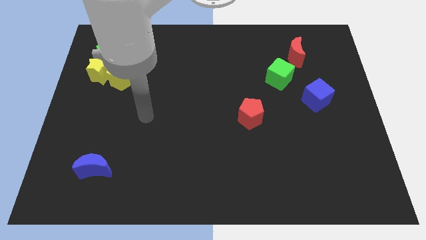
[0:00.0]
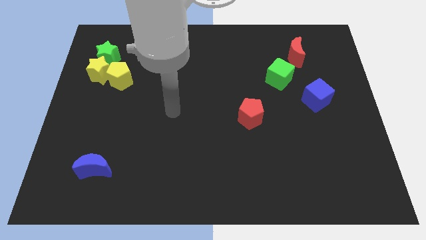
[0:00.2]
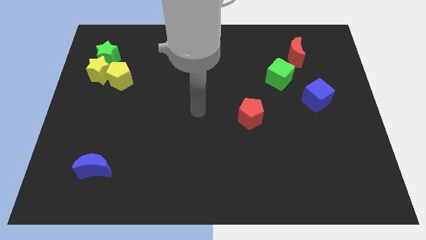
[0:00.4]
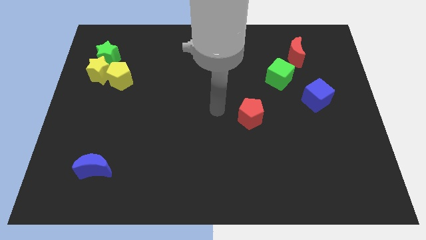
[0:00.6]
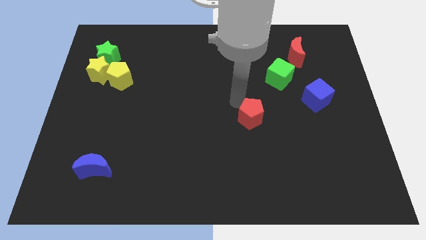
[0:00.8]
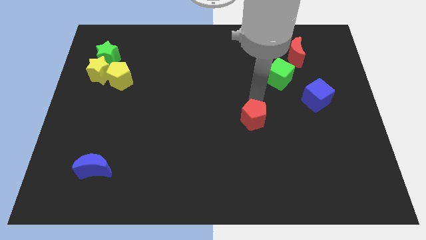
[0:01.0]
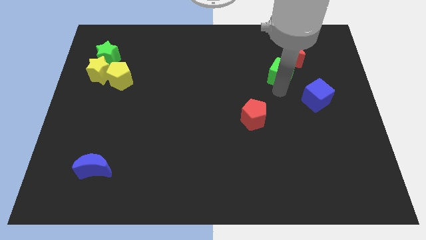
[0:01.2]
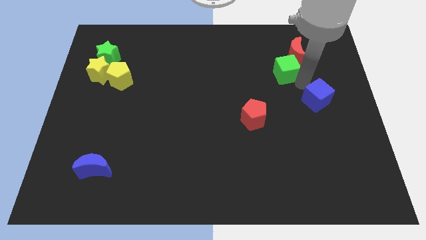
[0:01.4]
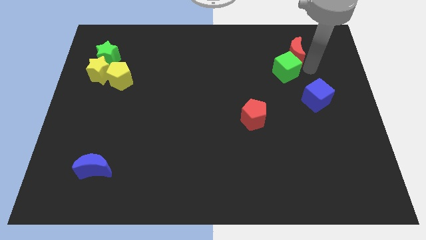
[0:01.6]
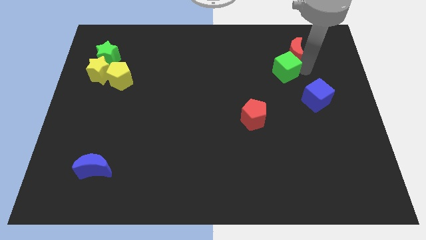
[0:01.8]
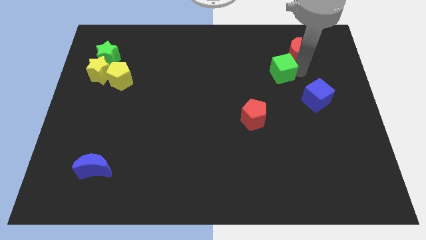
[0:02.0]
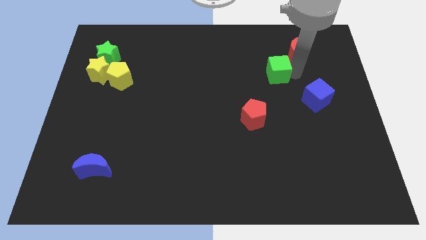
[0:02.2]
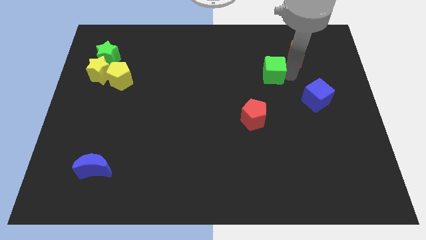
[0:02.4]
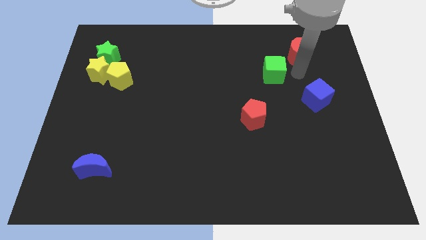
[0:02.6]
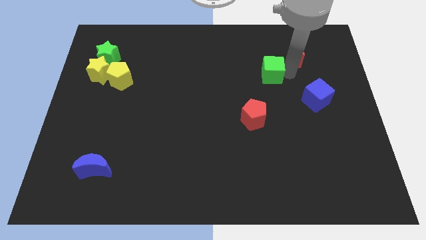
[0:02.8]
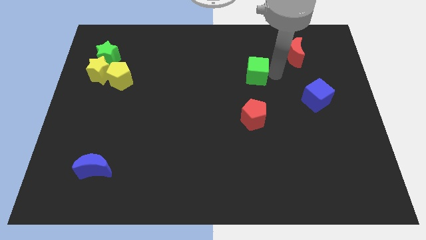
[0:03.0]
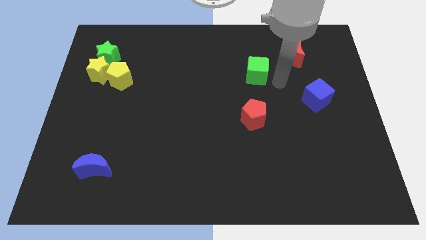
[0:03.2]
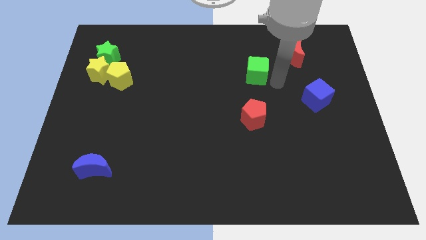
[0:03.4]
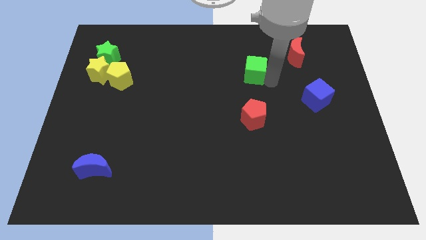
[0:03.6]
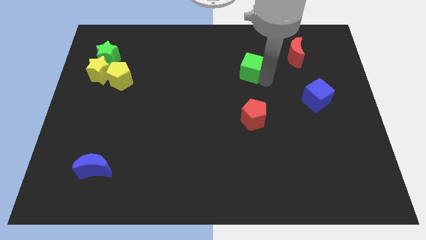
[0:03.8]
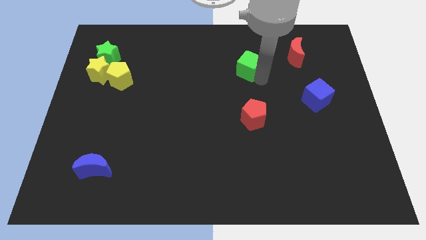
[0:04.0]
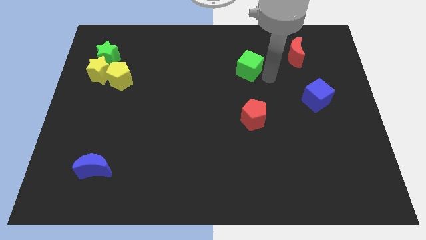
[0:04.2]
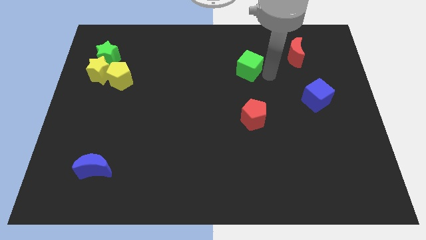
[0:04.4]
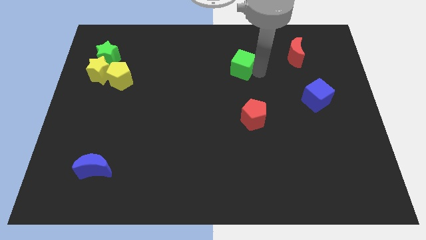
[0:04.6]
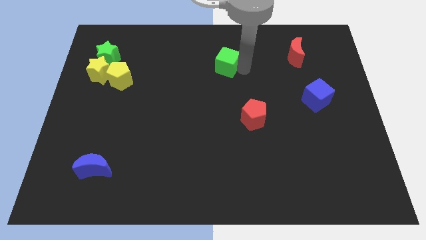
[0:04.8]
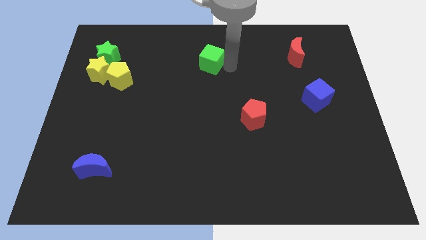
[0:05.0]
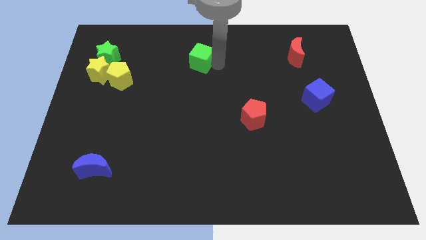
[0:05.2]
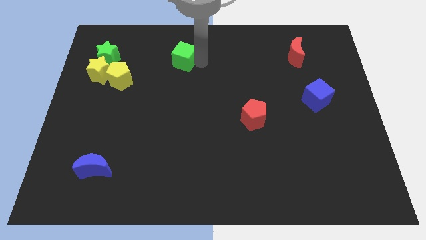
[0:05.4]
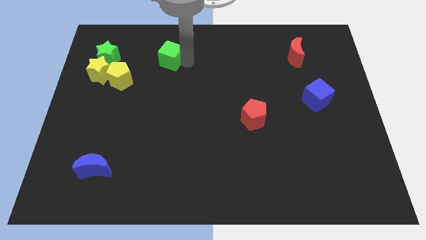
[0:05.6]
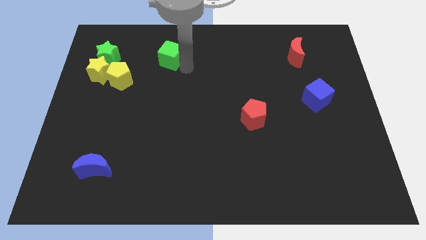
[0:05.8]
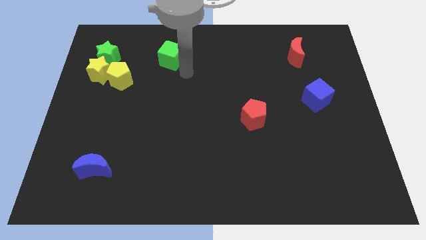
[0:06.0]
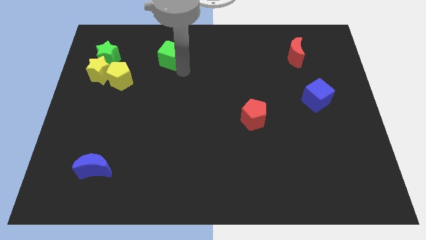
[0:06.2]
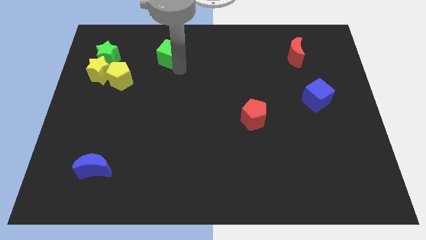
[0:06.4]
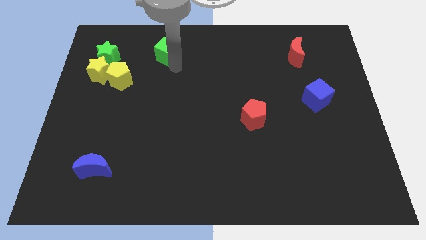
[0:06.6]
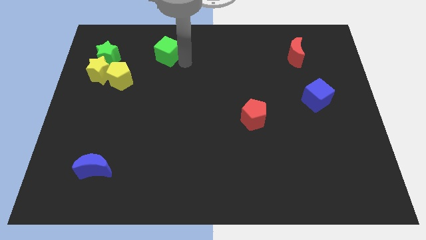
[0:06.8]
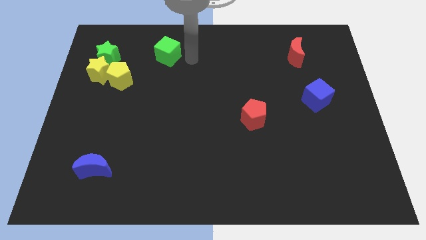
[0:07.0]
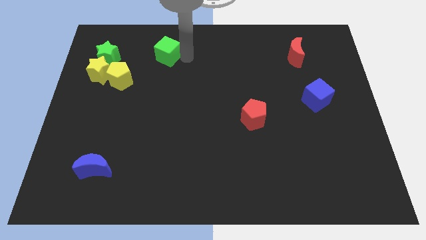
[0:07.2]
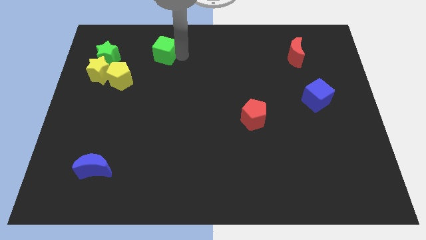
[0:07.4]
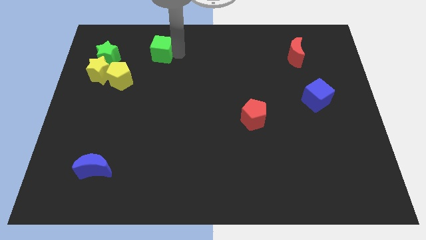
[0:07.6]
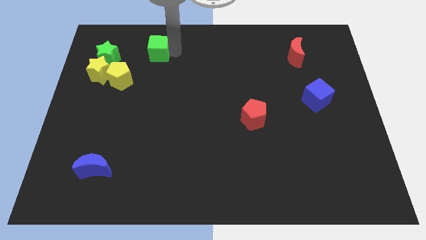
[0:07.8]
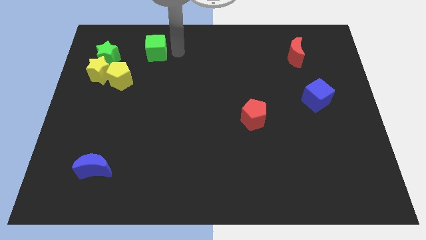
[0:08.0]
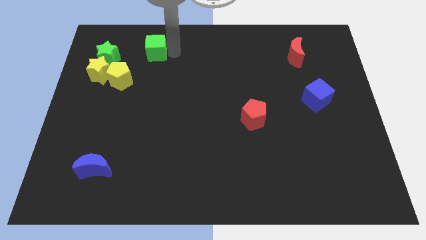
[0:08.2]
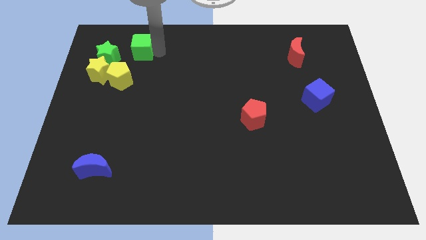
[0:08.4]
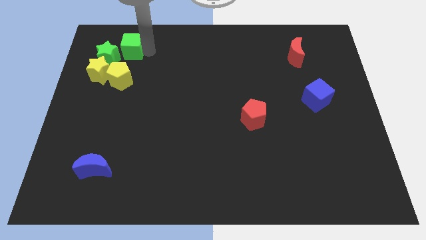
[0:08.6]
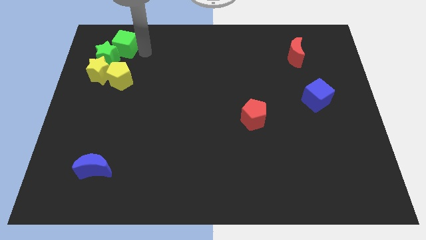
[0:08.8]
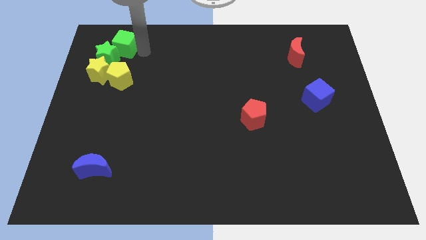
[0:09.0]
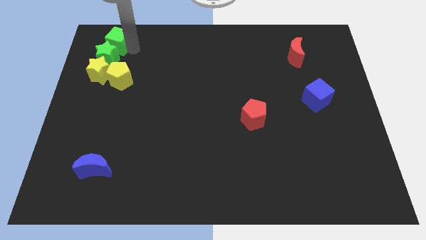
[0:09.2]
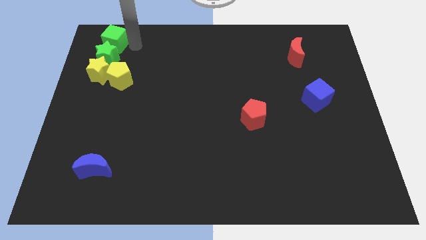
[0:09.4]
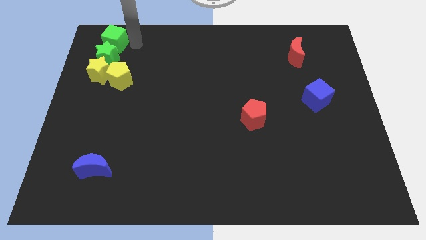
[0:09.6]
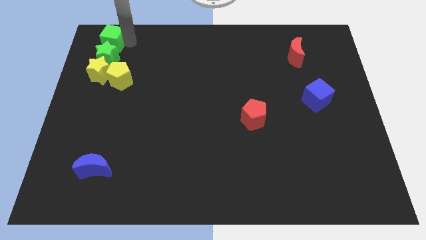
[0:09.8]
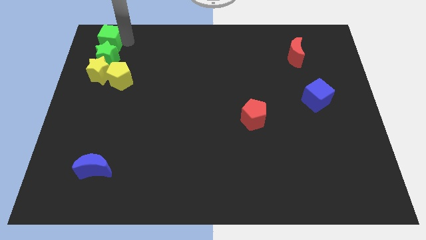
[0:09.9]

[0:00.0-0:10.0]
move the green cube to the top left of the board

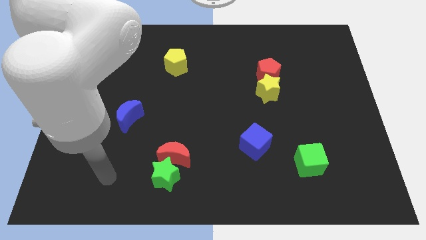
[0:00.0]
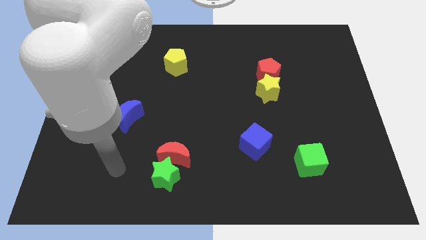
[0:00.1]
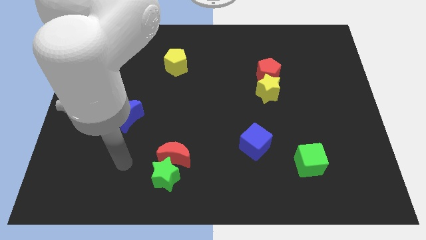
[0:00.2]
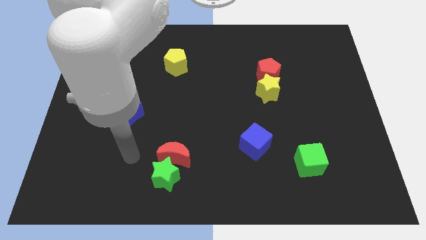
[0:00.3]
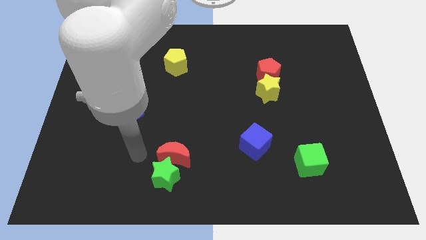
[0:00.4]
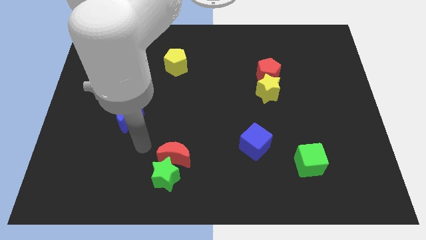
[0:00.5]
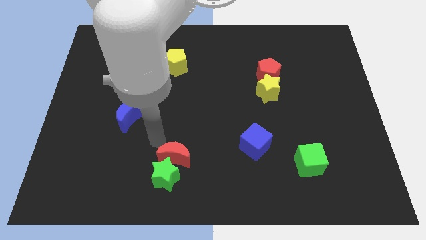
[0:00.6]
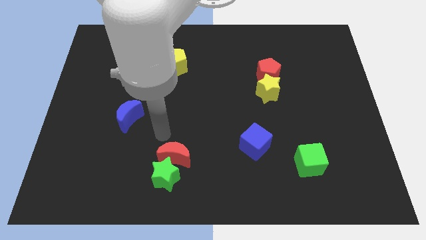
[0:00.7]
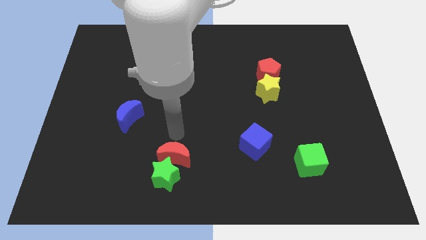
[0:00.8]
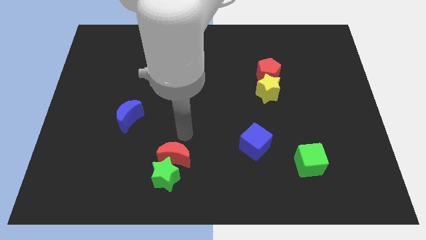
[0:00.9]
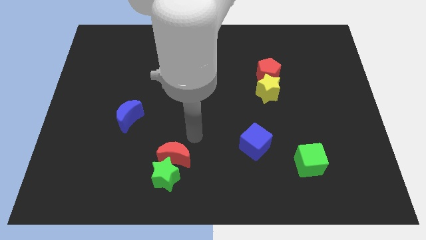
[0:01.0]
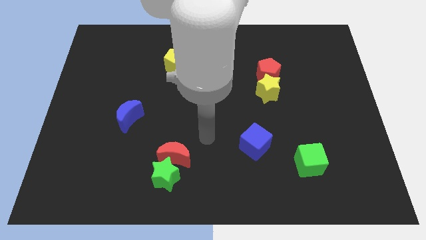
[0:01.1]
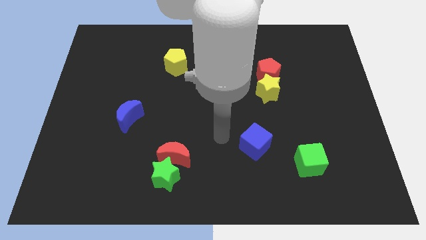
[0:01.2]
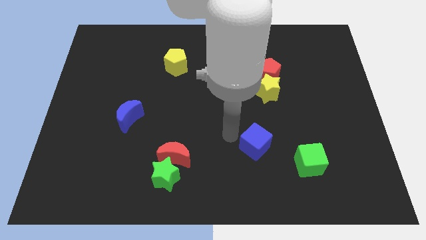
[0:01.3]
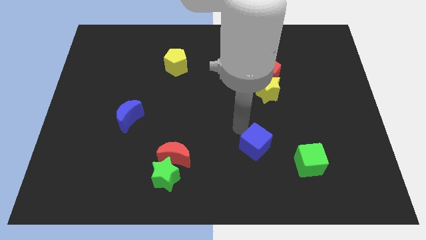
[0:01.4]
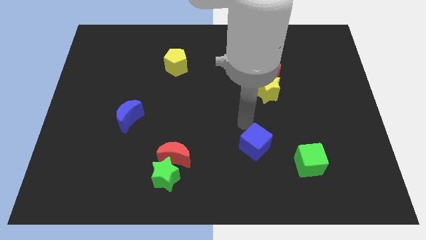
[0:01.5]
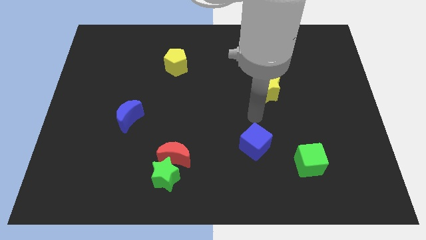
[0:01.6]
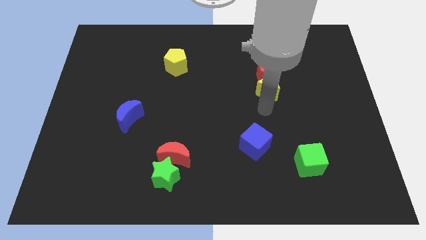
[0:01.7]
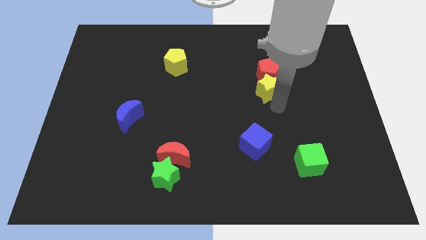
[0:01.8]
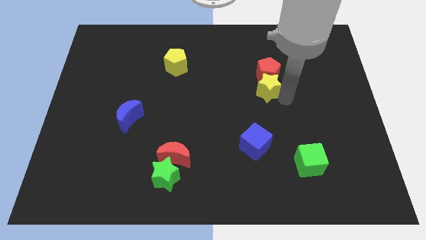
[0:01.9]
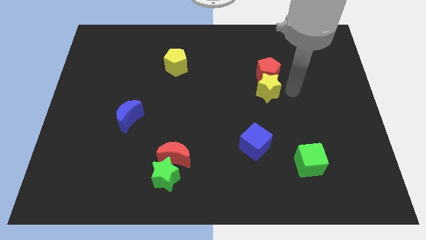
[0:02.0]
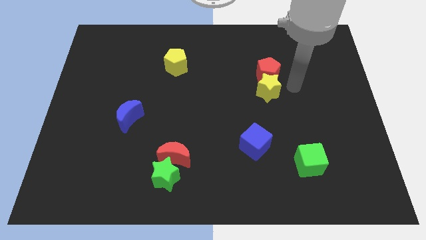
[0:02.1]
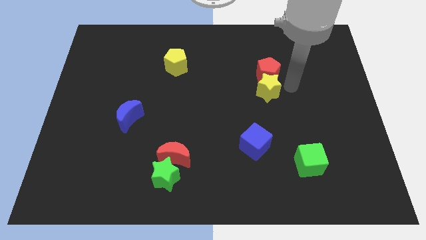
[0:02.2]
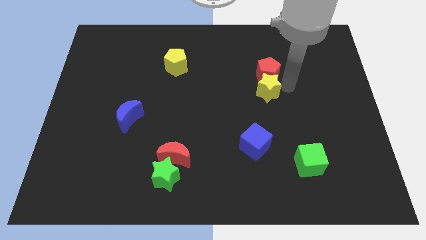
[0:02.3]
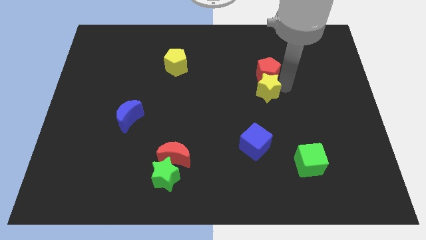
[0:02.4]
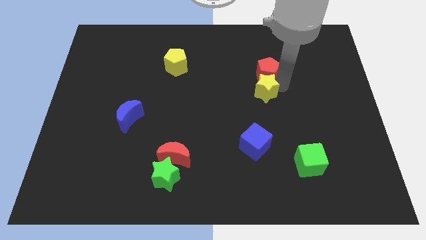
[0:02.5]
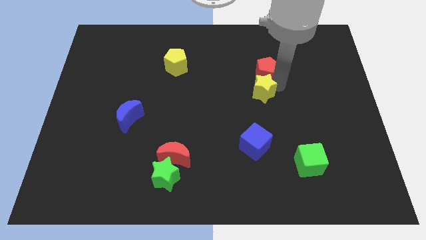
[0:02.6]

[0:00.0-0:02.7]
move the yellow star to the middle of the board

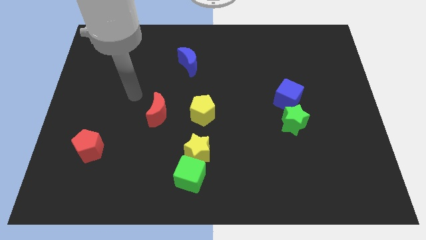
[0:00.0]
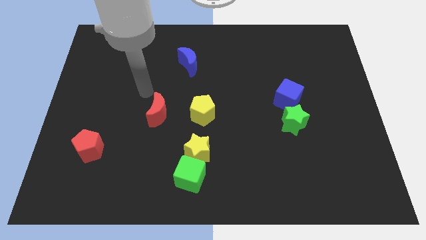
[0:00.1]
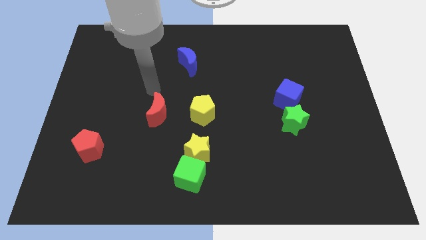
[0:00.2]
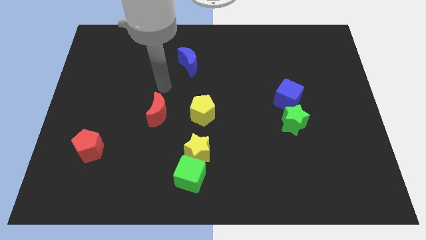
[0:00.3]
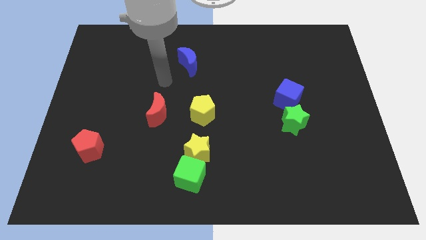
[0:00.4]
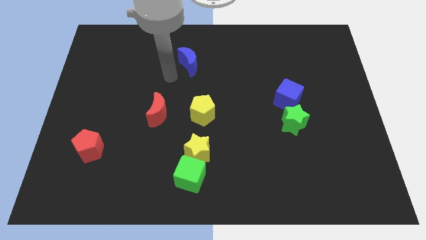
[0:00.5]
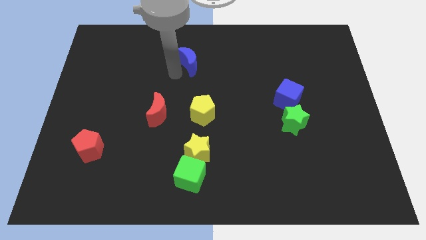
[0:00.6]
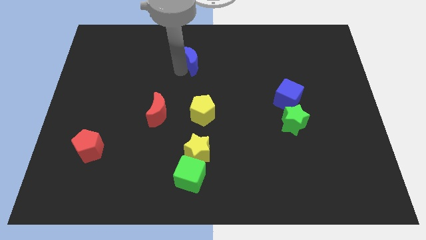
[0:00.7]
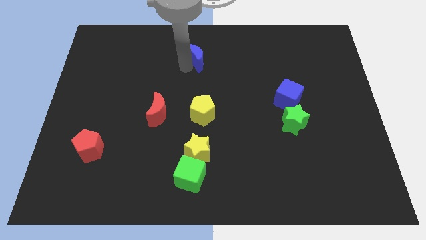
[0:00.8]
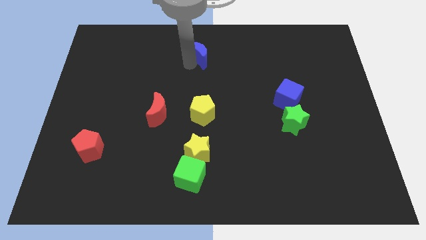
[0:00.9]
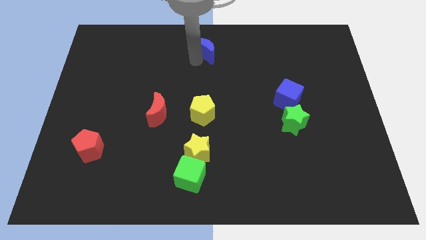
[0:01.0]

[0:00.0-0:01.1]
slide the blue moon to the top side
